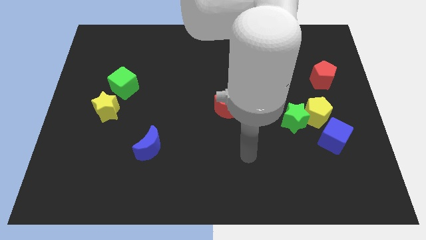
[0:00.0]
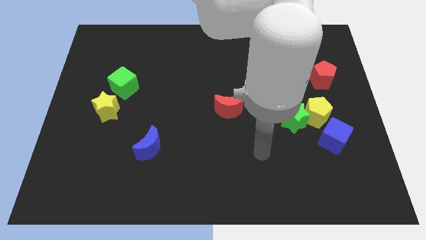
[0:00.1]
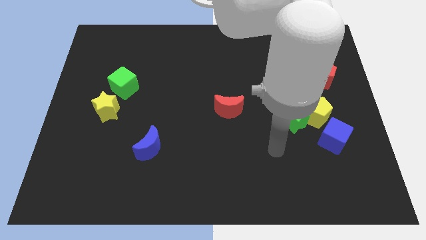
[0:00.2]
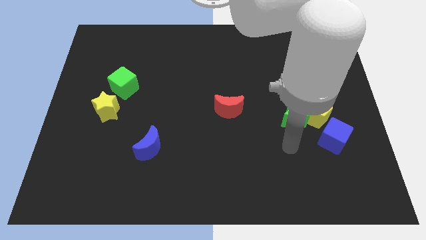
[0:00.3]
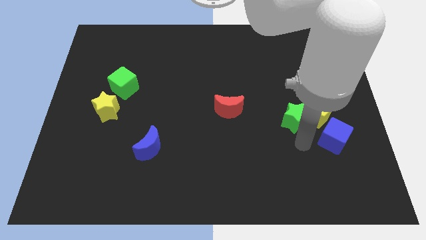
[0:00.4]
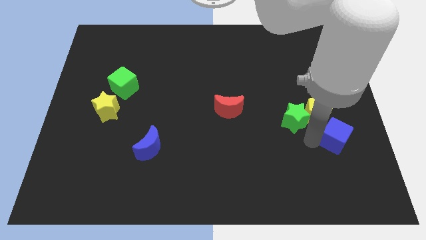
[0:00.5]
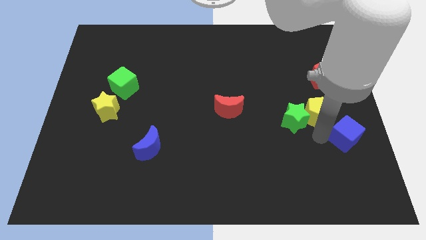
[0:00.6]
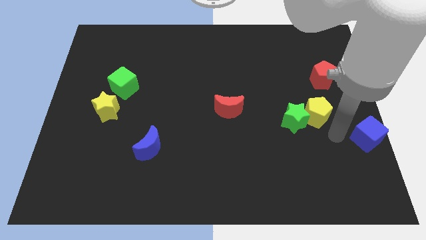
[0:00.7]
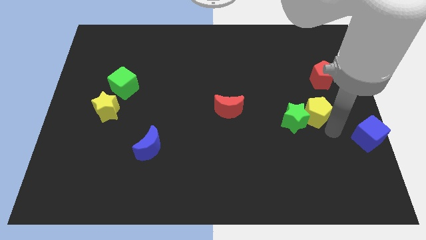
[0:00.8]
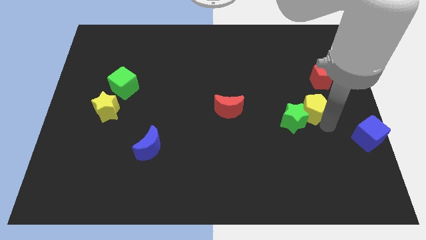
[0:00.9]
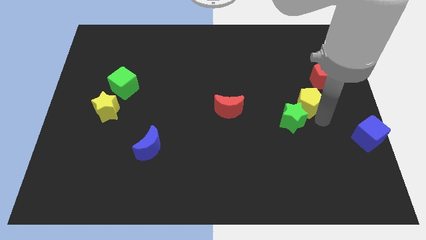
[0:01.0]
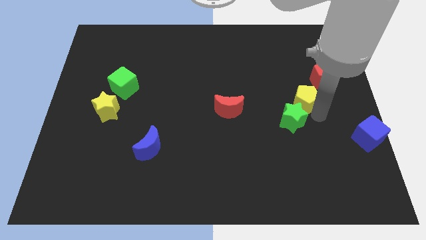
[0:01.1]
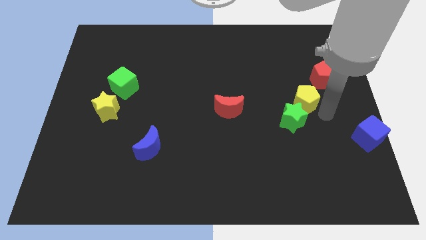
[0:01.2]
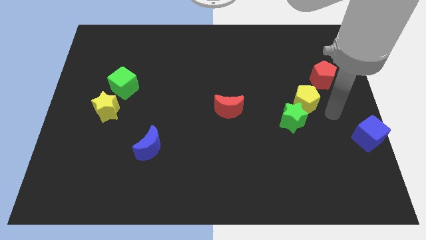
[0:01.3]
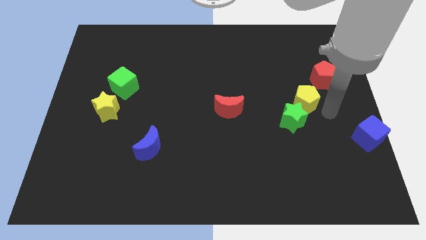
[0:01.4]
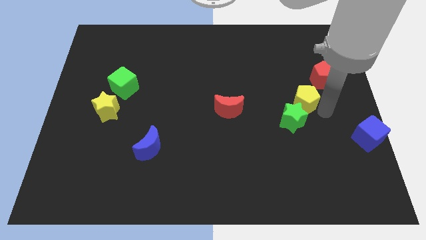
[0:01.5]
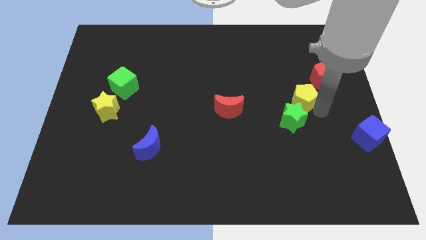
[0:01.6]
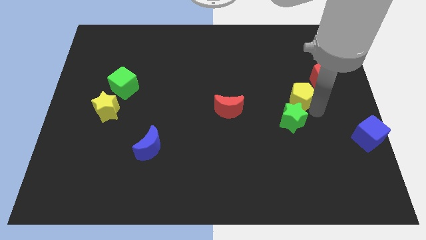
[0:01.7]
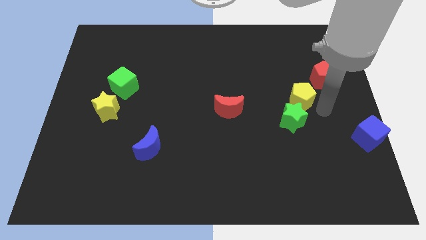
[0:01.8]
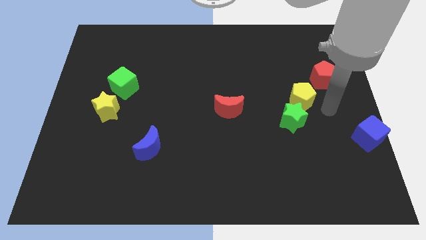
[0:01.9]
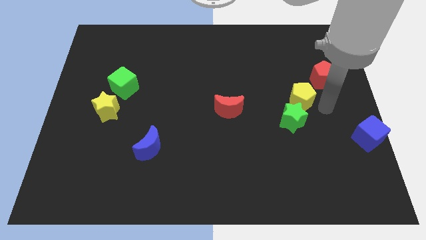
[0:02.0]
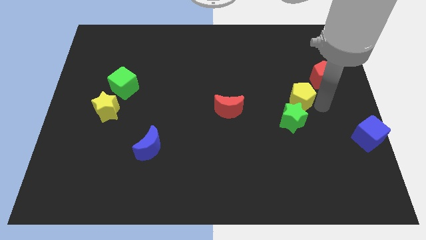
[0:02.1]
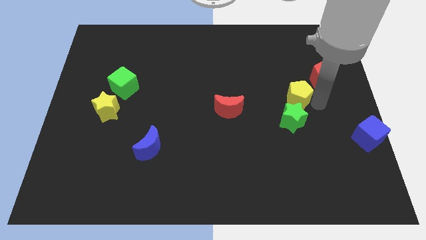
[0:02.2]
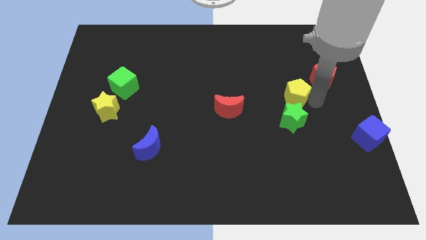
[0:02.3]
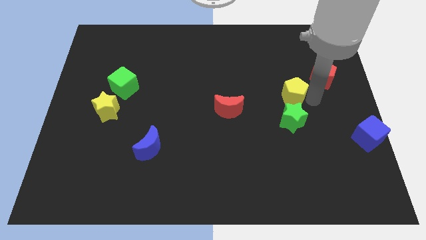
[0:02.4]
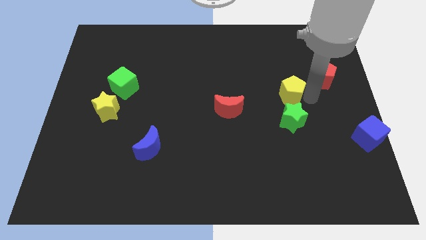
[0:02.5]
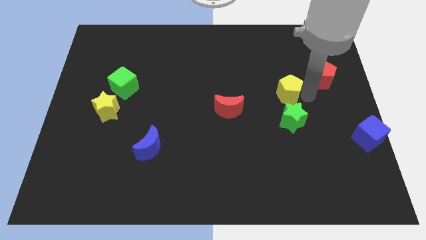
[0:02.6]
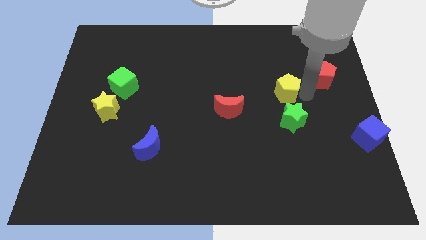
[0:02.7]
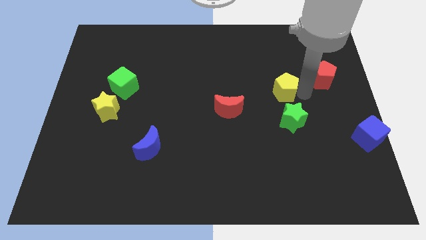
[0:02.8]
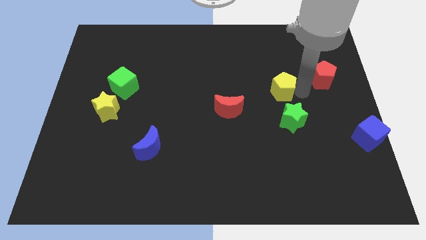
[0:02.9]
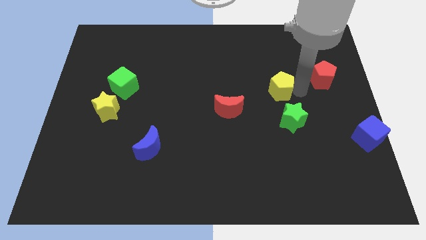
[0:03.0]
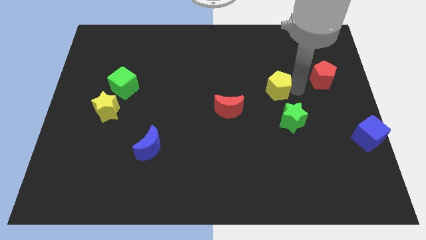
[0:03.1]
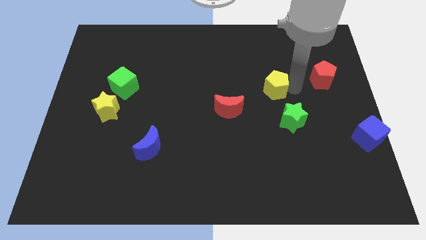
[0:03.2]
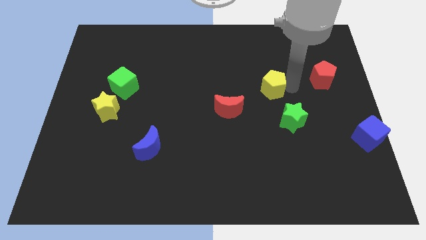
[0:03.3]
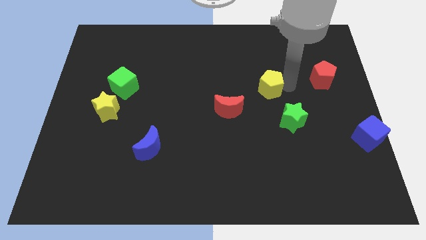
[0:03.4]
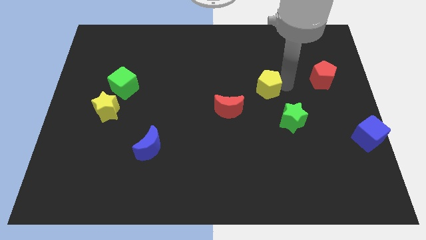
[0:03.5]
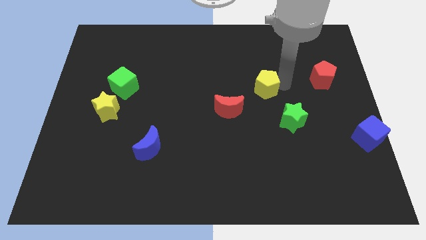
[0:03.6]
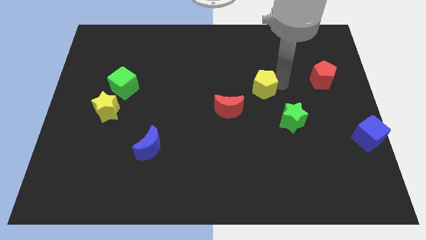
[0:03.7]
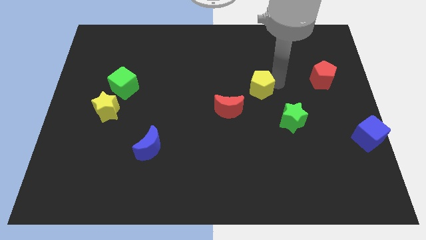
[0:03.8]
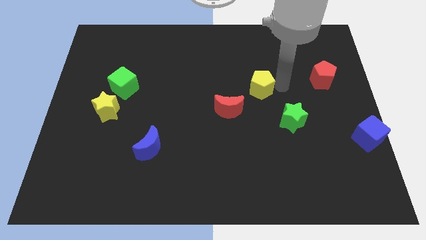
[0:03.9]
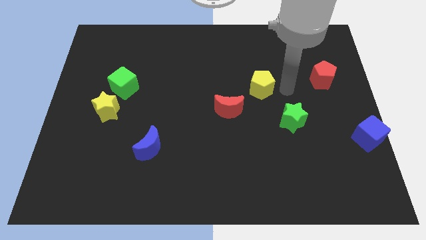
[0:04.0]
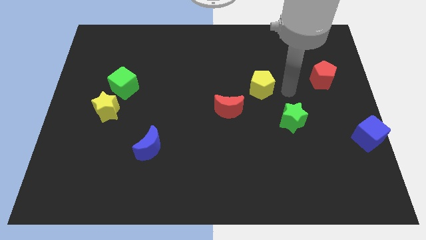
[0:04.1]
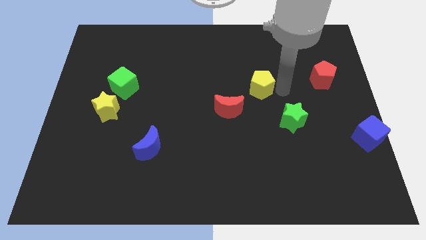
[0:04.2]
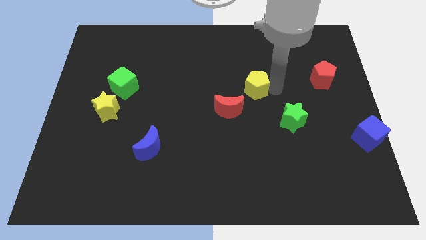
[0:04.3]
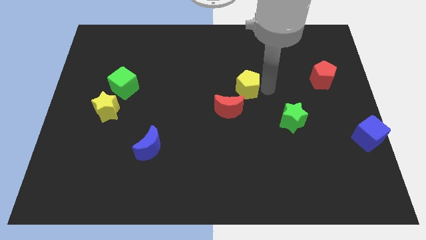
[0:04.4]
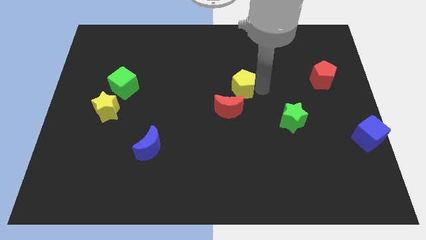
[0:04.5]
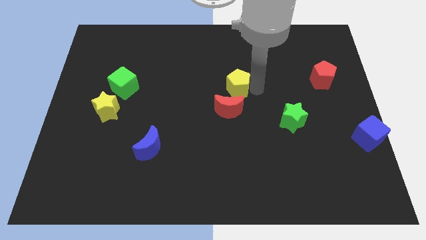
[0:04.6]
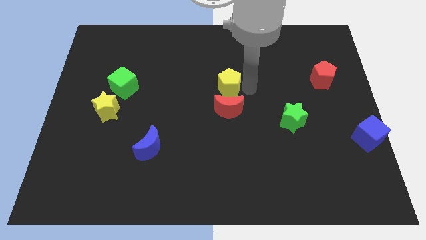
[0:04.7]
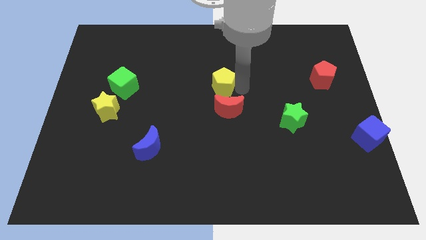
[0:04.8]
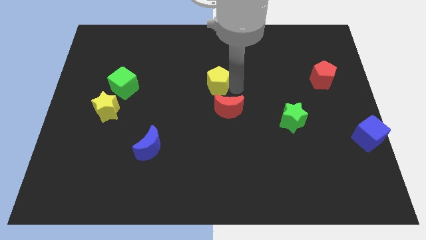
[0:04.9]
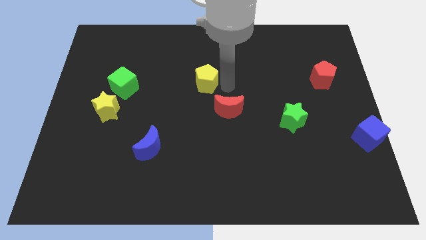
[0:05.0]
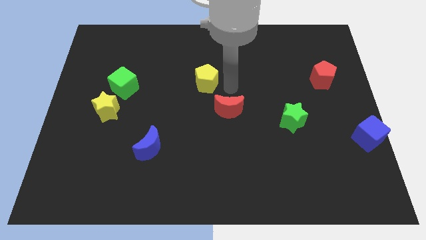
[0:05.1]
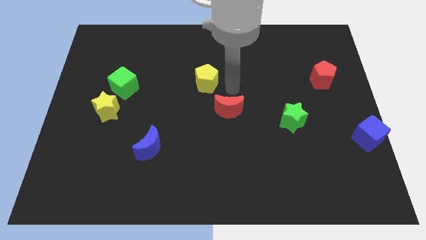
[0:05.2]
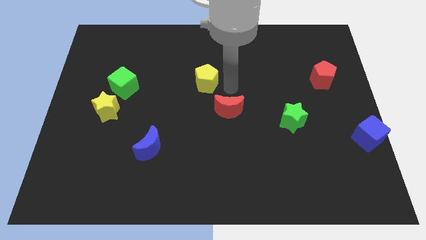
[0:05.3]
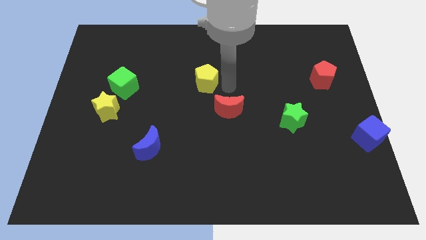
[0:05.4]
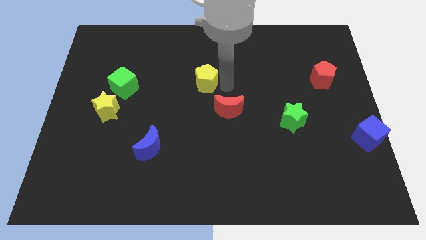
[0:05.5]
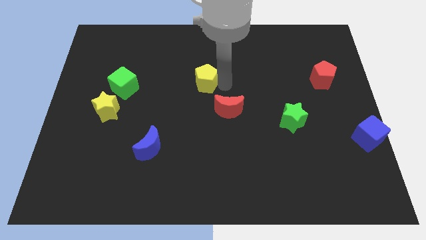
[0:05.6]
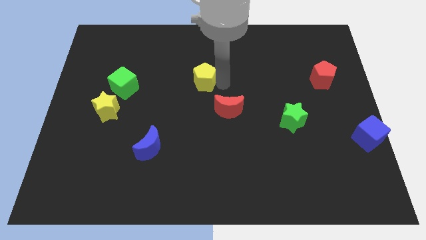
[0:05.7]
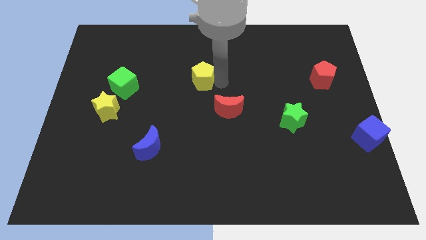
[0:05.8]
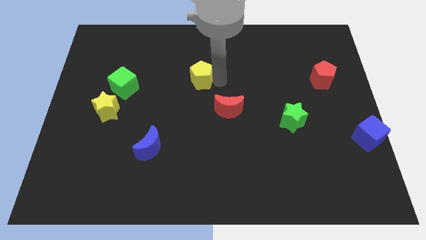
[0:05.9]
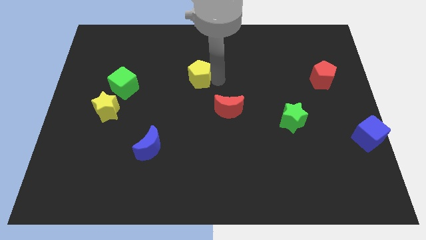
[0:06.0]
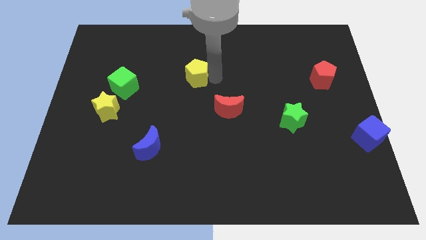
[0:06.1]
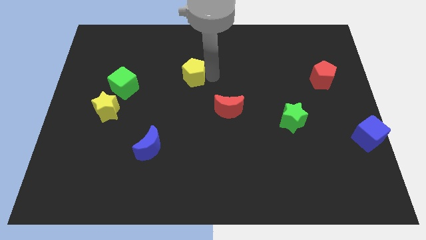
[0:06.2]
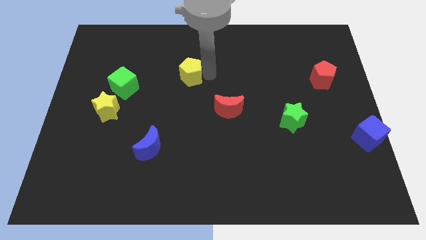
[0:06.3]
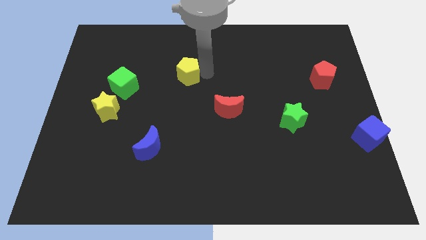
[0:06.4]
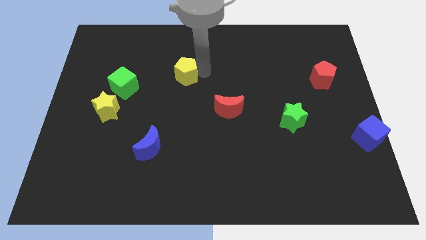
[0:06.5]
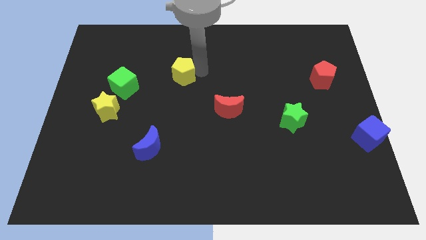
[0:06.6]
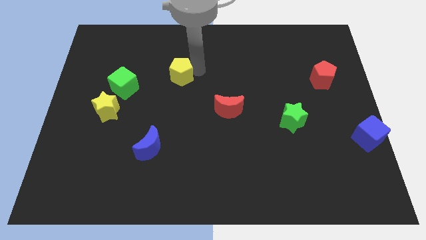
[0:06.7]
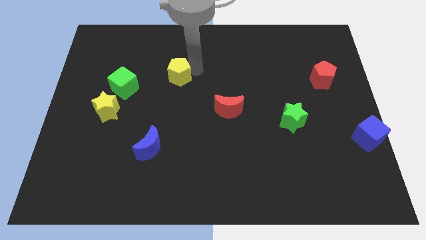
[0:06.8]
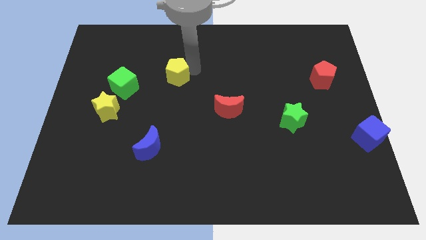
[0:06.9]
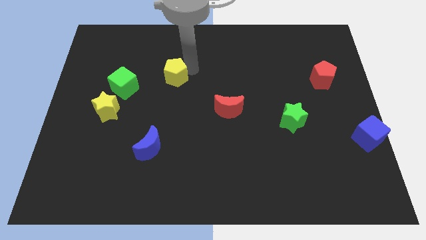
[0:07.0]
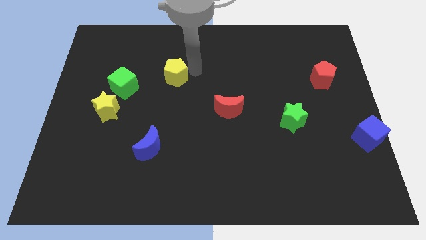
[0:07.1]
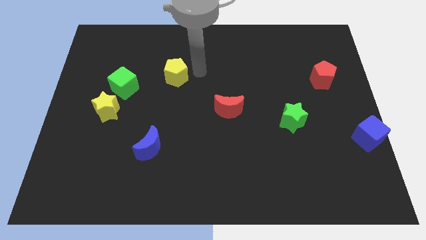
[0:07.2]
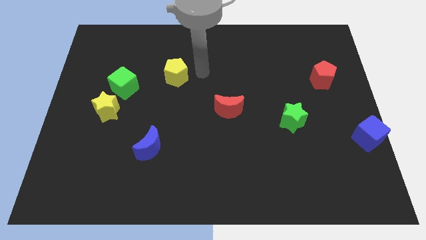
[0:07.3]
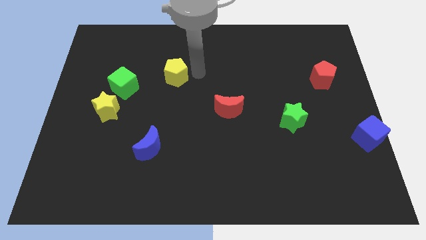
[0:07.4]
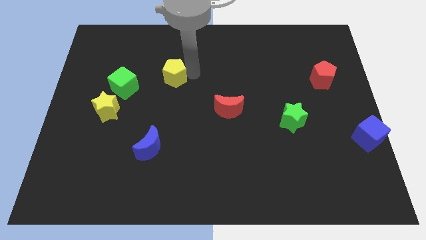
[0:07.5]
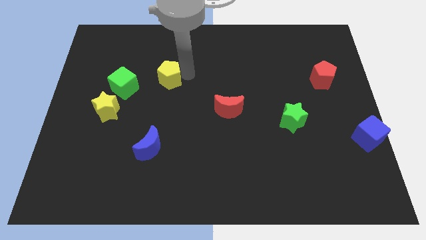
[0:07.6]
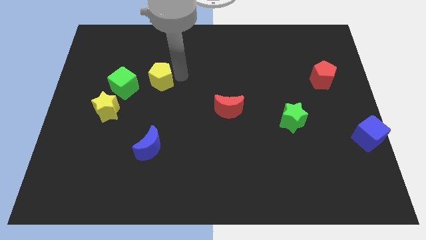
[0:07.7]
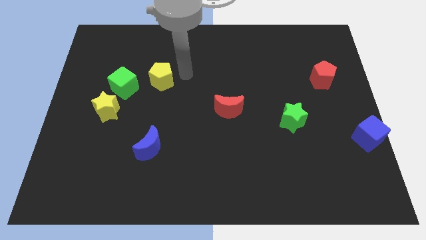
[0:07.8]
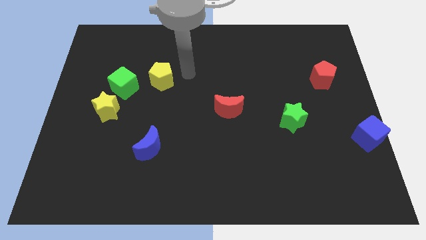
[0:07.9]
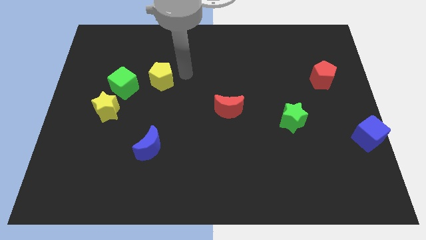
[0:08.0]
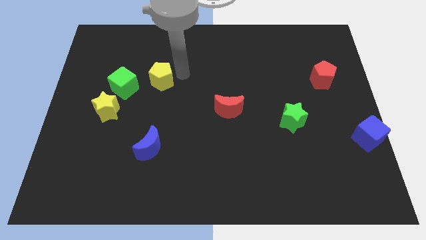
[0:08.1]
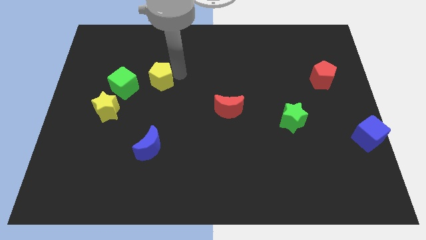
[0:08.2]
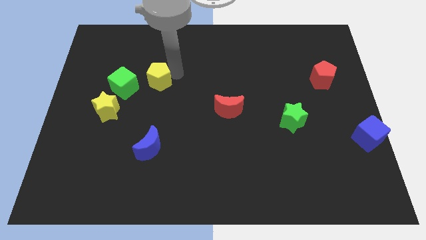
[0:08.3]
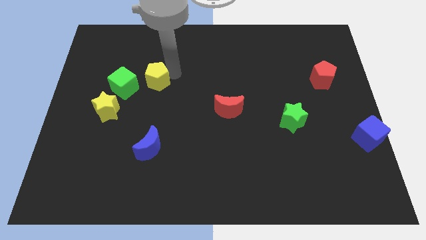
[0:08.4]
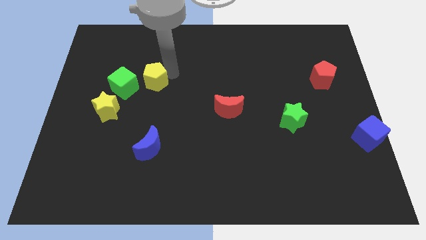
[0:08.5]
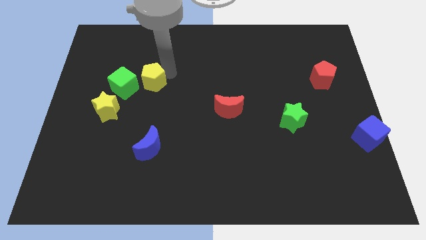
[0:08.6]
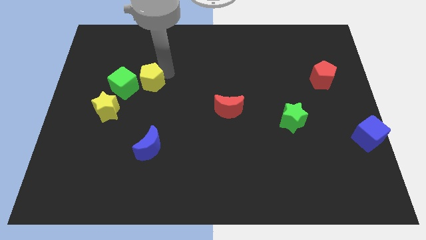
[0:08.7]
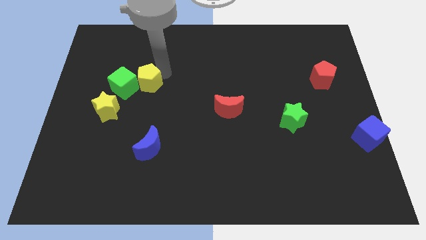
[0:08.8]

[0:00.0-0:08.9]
slide the yellow pentagon towards the green cube
